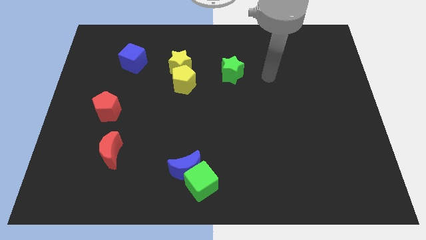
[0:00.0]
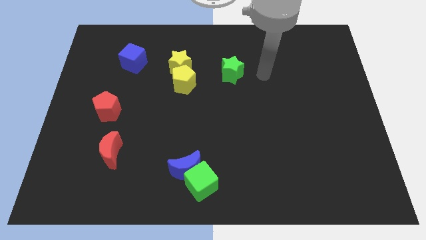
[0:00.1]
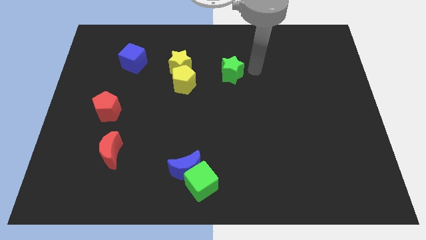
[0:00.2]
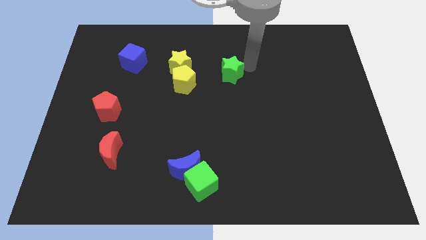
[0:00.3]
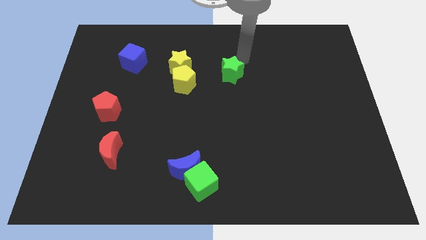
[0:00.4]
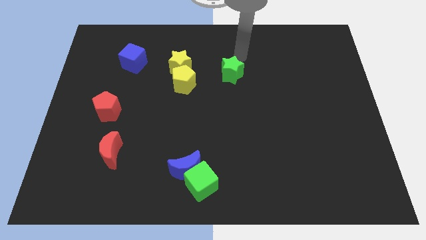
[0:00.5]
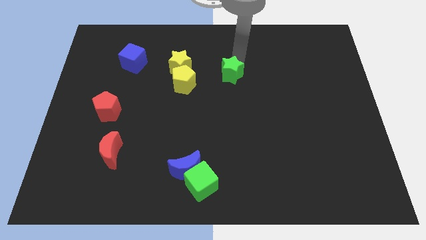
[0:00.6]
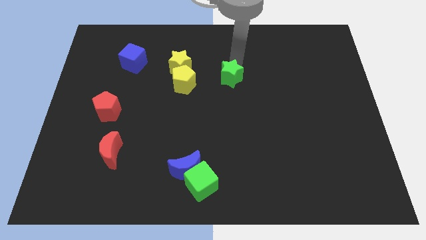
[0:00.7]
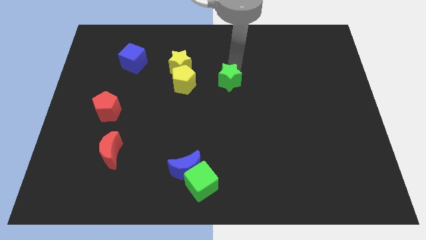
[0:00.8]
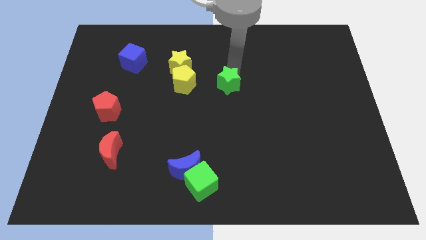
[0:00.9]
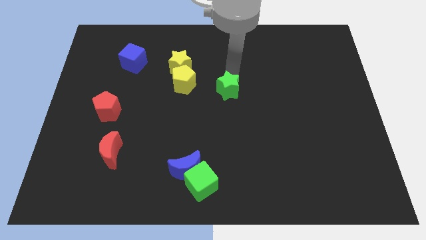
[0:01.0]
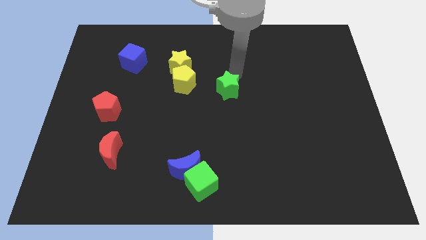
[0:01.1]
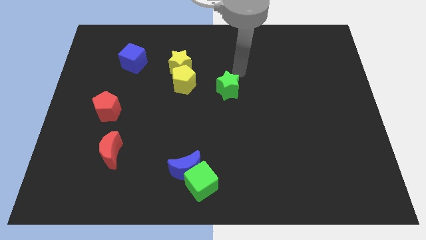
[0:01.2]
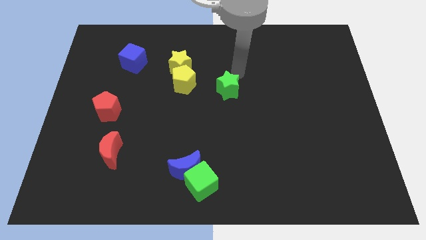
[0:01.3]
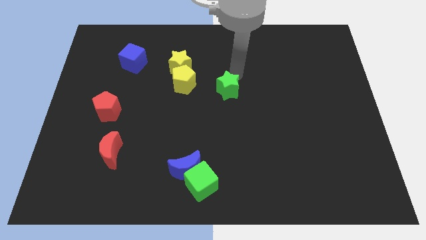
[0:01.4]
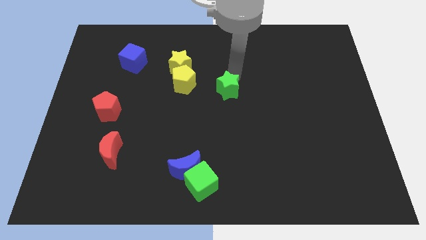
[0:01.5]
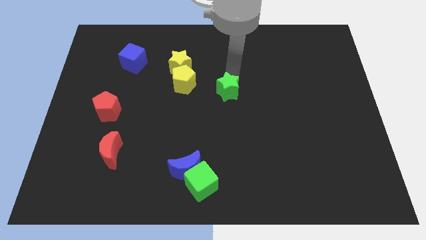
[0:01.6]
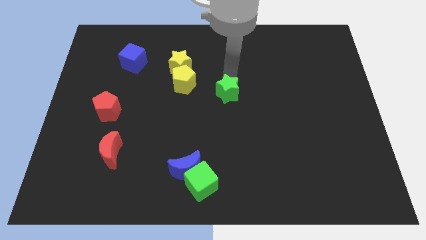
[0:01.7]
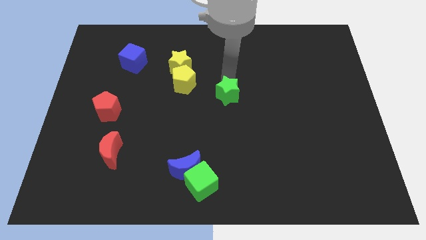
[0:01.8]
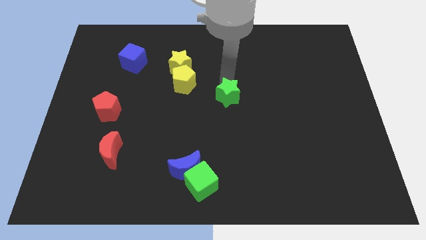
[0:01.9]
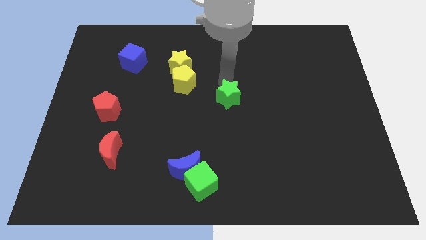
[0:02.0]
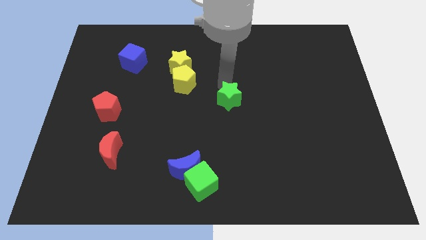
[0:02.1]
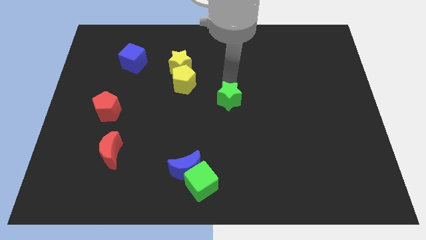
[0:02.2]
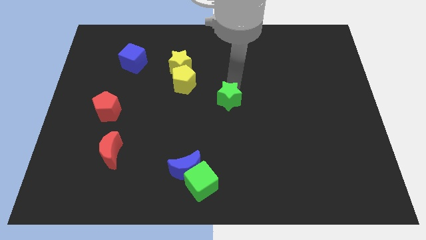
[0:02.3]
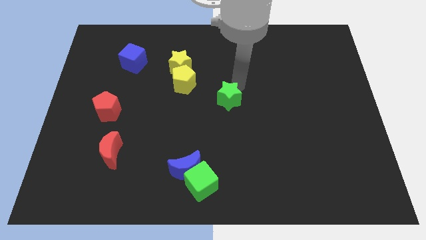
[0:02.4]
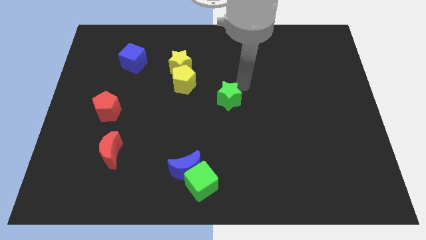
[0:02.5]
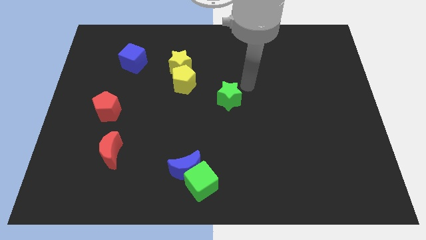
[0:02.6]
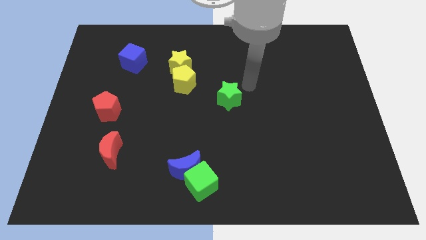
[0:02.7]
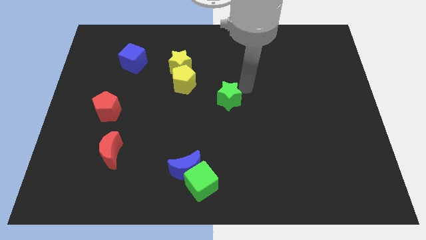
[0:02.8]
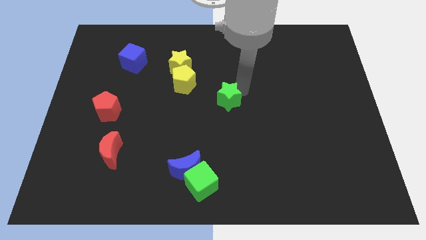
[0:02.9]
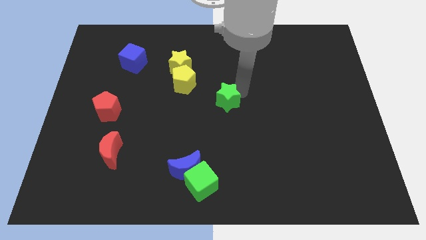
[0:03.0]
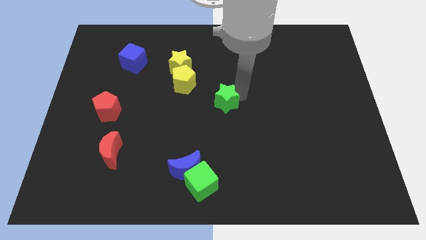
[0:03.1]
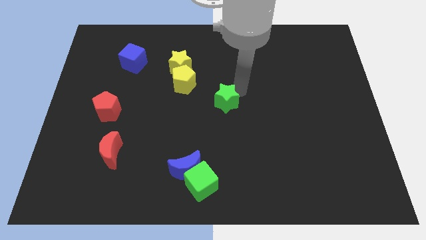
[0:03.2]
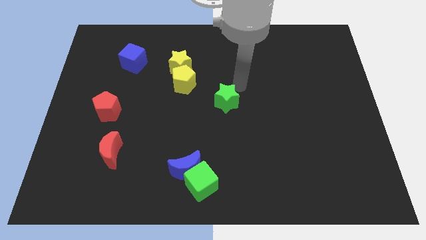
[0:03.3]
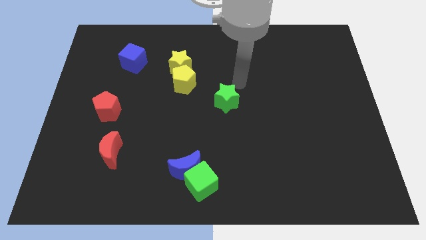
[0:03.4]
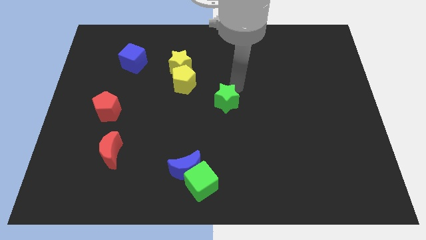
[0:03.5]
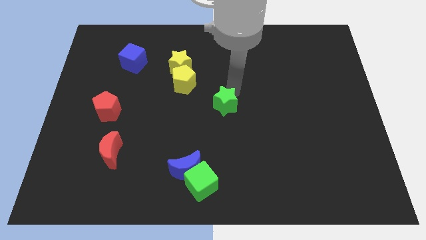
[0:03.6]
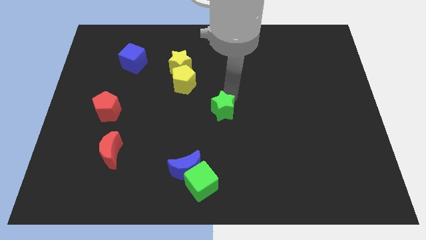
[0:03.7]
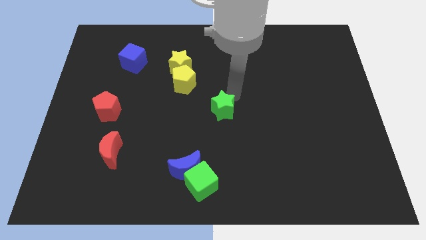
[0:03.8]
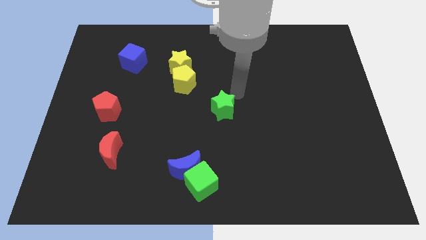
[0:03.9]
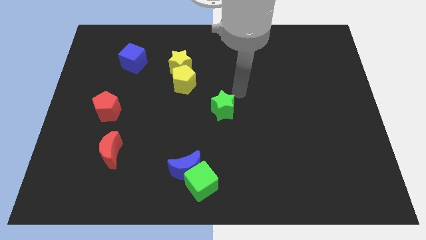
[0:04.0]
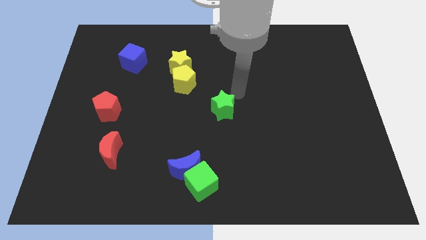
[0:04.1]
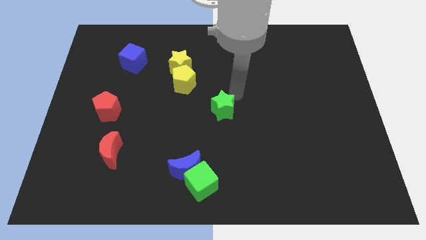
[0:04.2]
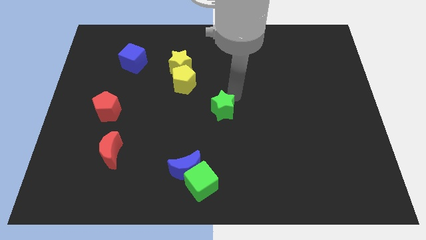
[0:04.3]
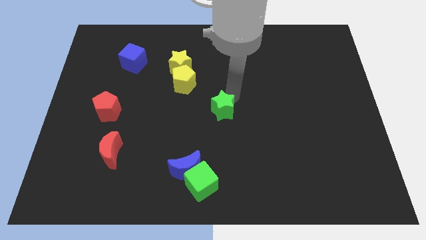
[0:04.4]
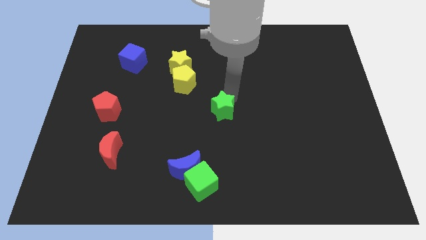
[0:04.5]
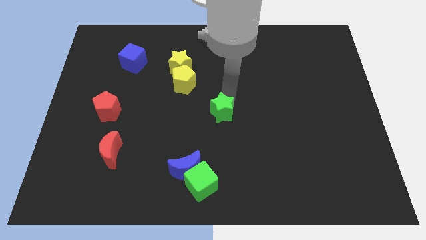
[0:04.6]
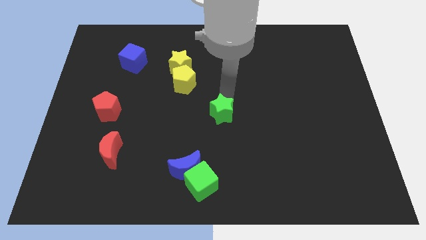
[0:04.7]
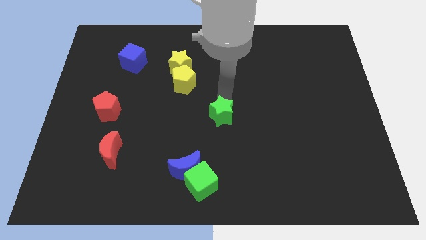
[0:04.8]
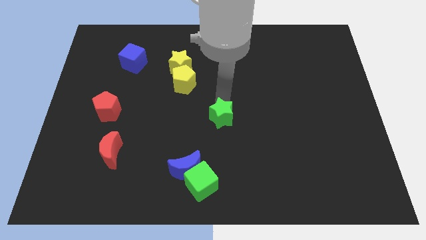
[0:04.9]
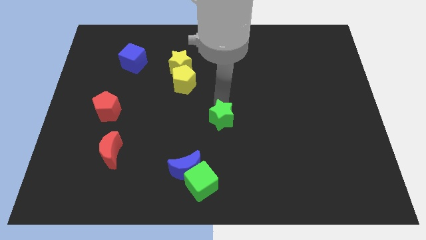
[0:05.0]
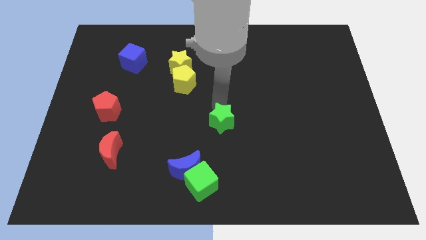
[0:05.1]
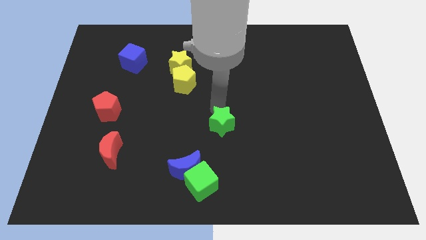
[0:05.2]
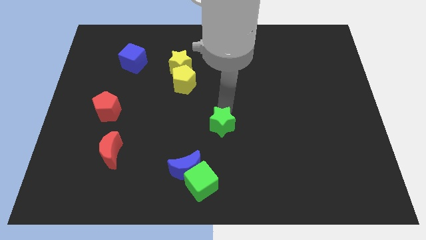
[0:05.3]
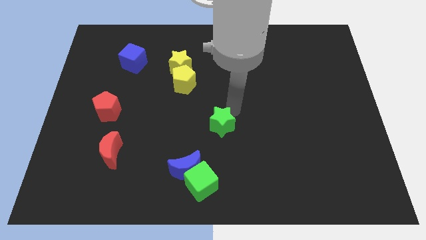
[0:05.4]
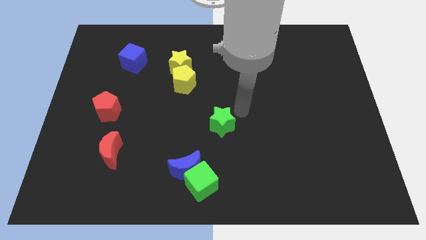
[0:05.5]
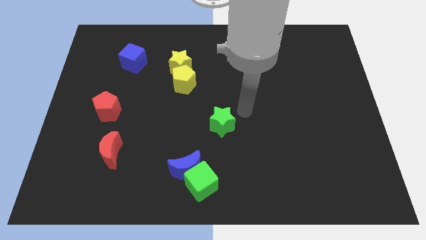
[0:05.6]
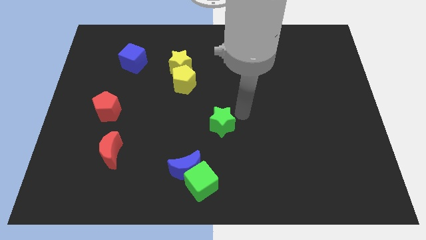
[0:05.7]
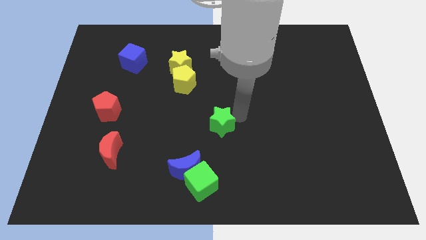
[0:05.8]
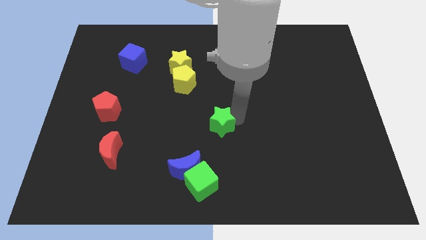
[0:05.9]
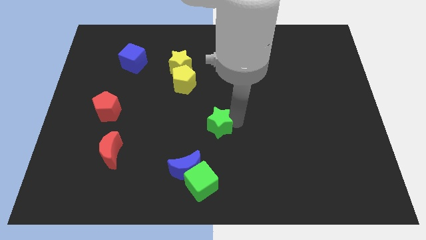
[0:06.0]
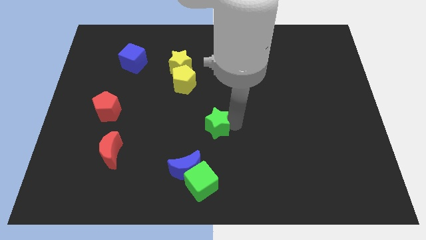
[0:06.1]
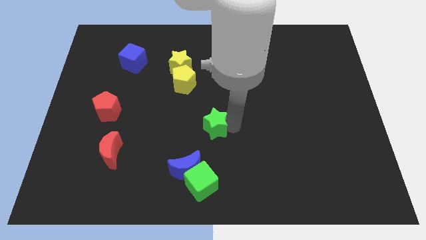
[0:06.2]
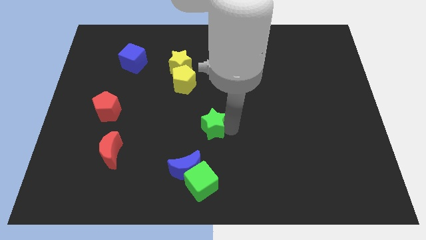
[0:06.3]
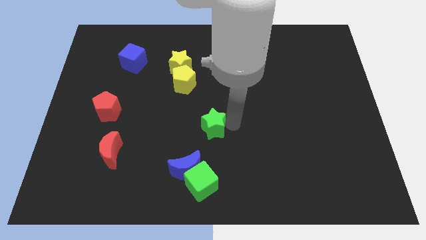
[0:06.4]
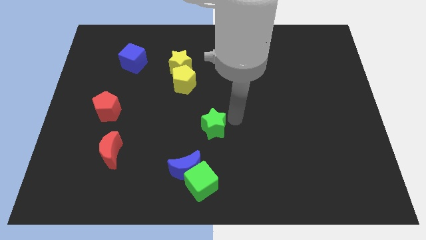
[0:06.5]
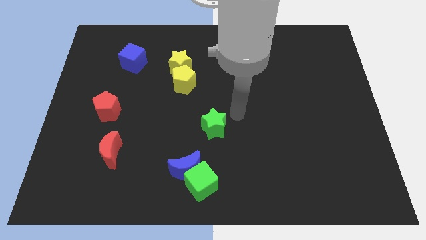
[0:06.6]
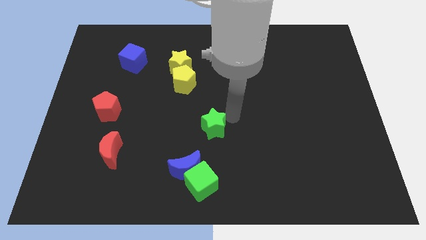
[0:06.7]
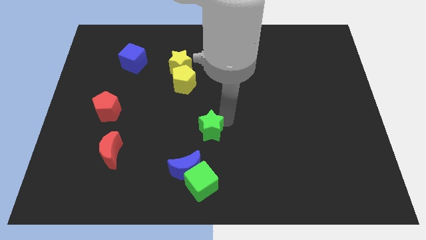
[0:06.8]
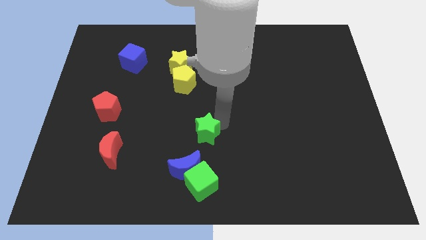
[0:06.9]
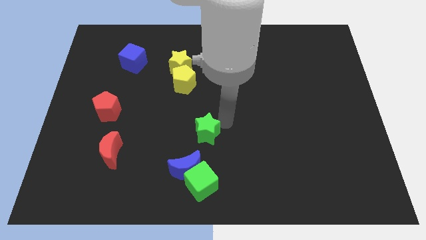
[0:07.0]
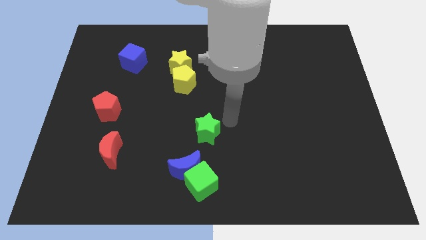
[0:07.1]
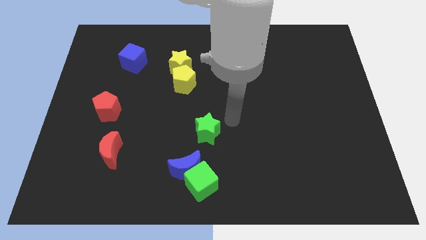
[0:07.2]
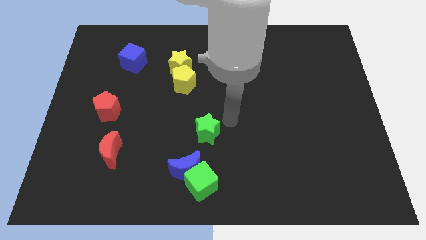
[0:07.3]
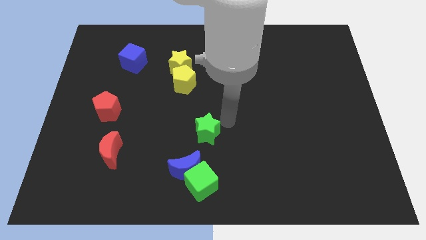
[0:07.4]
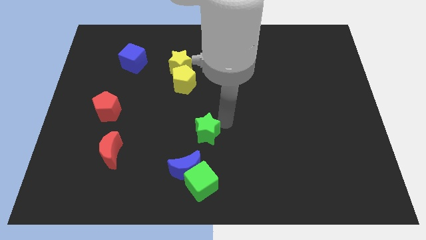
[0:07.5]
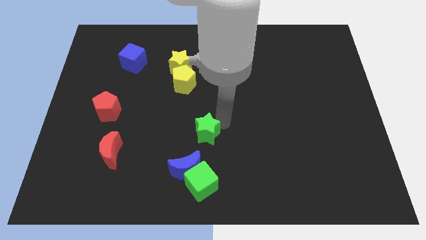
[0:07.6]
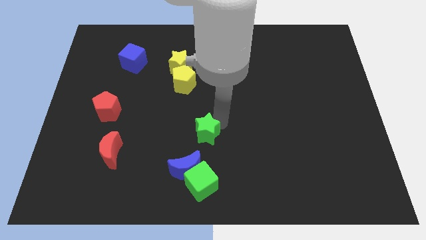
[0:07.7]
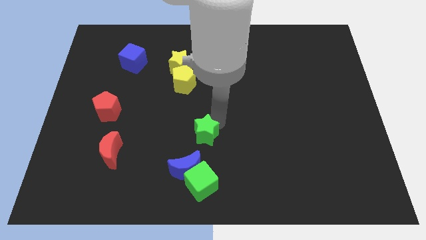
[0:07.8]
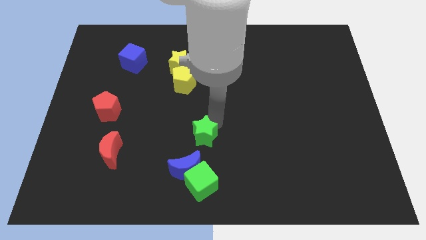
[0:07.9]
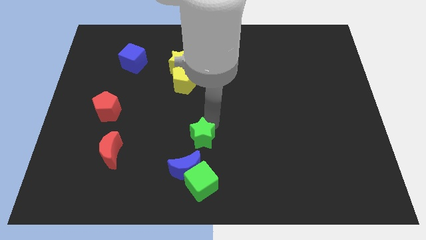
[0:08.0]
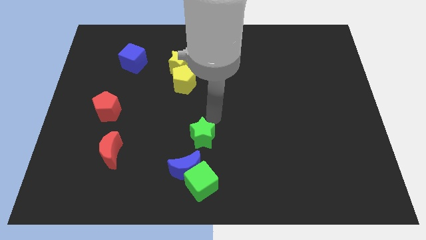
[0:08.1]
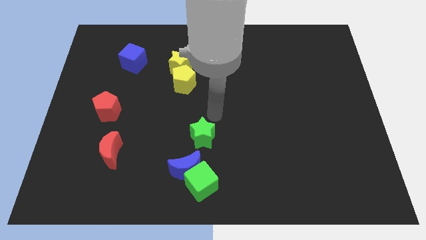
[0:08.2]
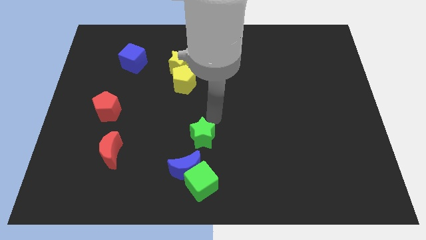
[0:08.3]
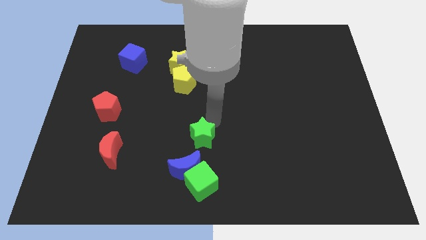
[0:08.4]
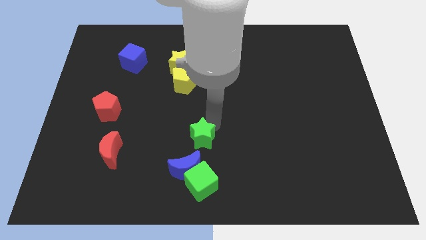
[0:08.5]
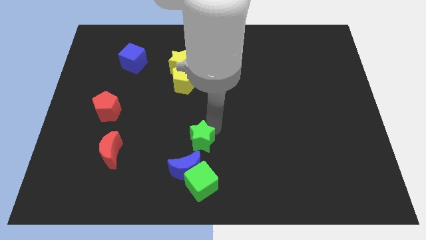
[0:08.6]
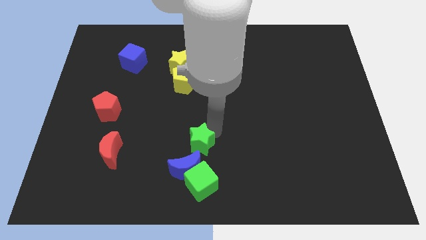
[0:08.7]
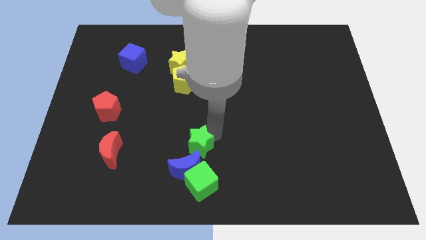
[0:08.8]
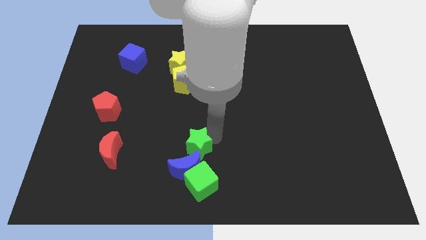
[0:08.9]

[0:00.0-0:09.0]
push the green star to the blue moon
